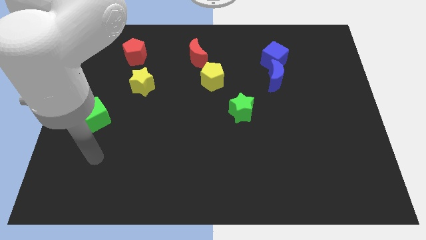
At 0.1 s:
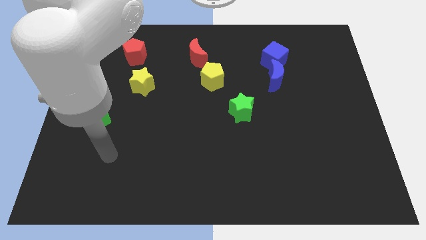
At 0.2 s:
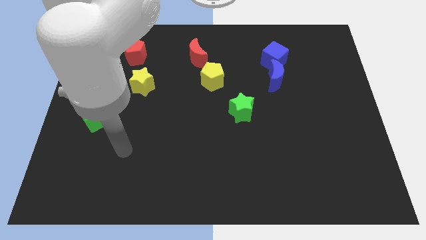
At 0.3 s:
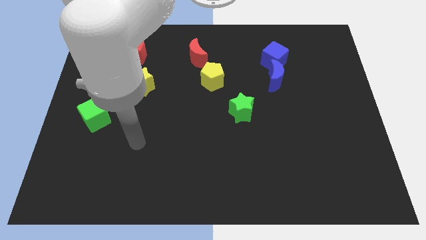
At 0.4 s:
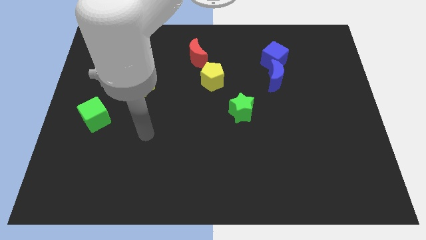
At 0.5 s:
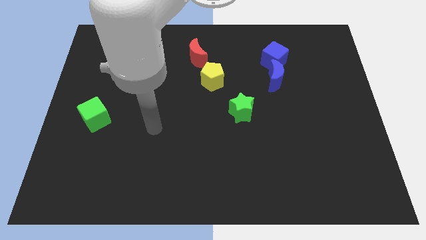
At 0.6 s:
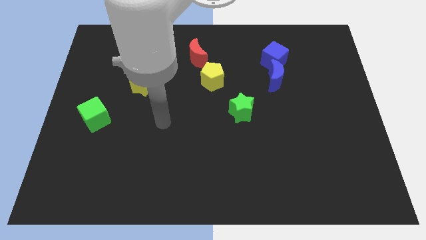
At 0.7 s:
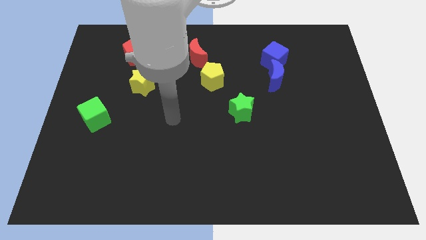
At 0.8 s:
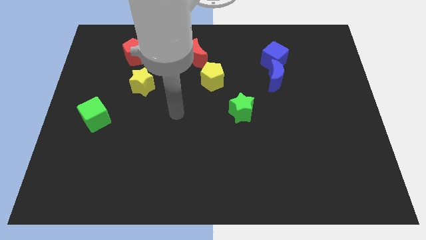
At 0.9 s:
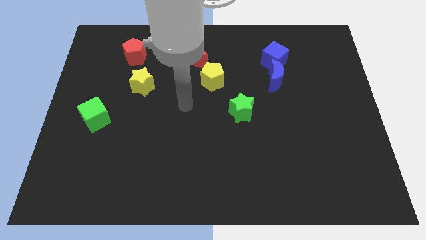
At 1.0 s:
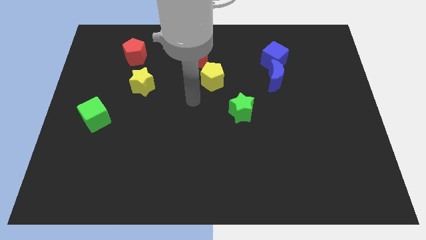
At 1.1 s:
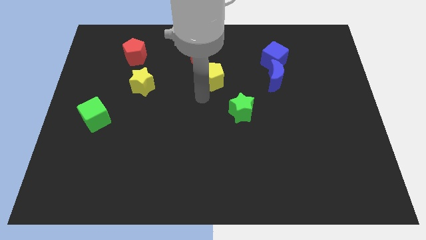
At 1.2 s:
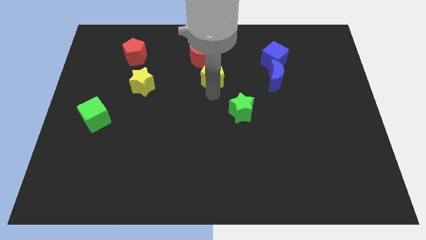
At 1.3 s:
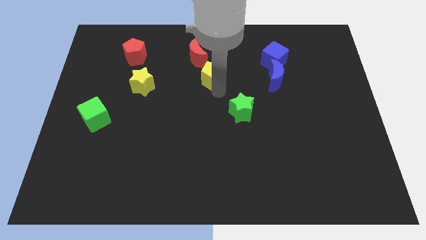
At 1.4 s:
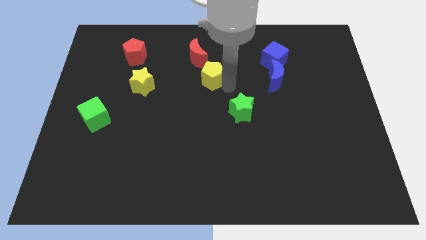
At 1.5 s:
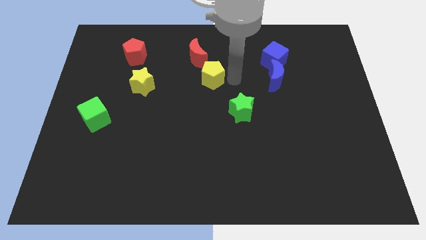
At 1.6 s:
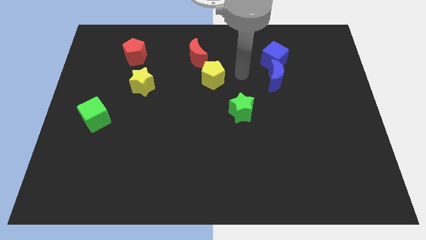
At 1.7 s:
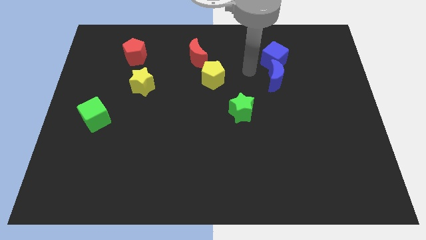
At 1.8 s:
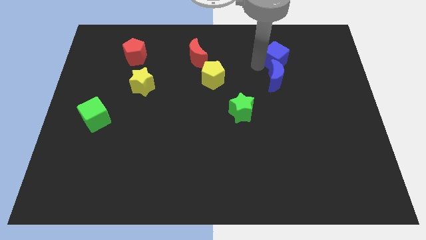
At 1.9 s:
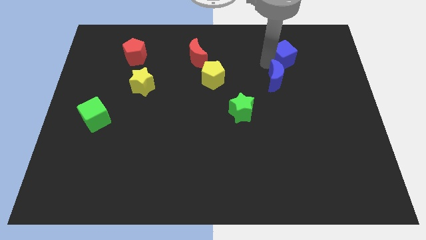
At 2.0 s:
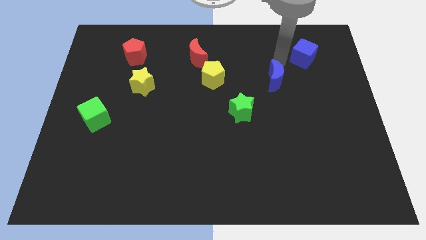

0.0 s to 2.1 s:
move the blue moon away from the blue cube

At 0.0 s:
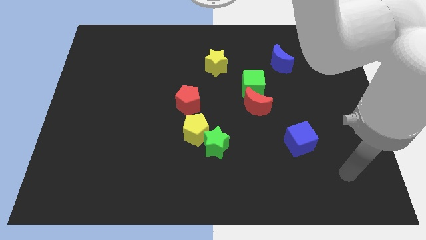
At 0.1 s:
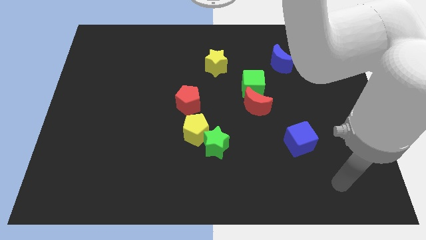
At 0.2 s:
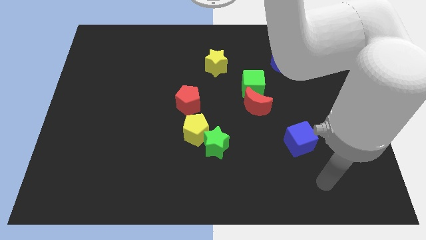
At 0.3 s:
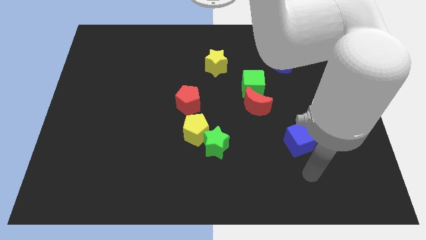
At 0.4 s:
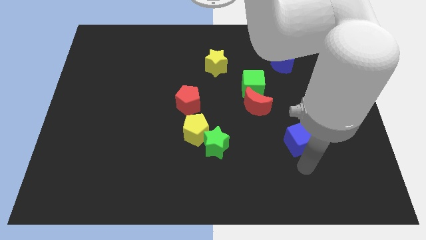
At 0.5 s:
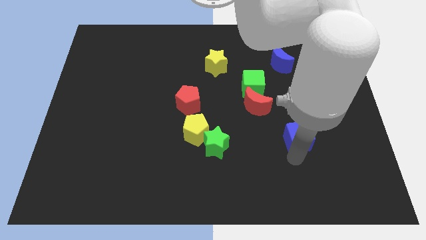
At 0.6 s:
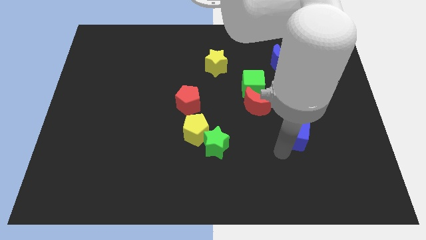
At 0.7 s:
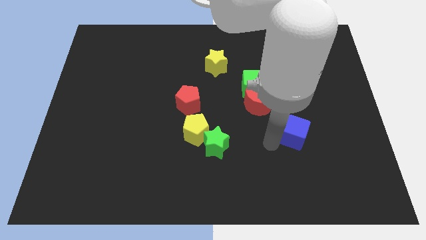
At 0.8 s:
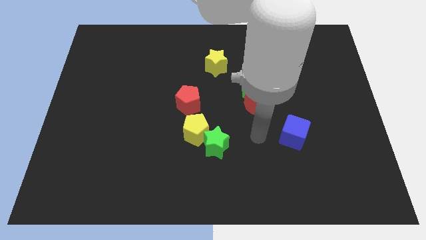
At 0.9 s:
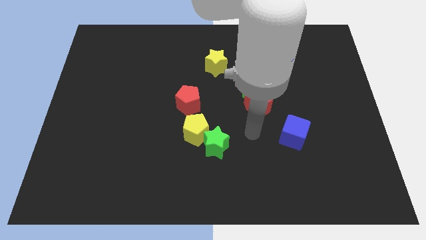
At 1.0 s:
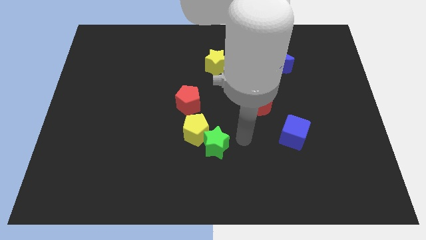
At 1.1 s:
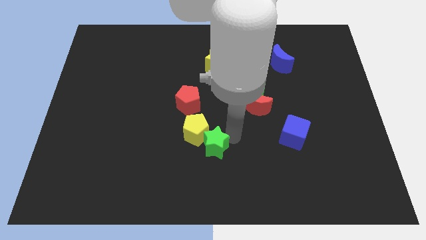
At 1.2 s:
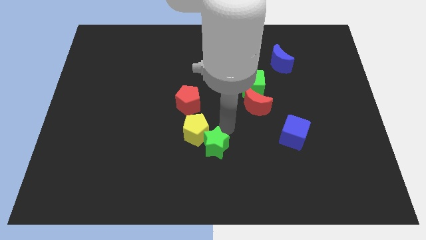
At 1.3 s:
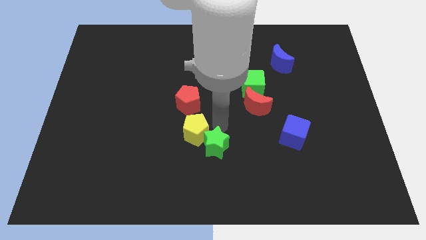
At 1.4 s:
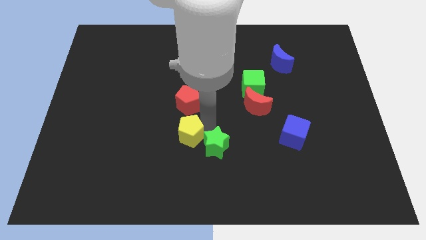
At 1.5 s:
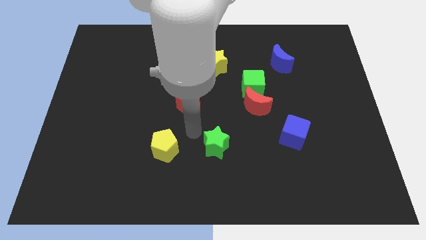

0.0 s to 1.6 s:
pull the green star apart from the yellow pentagon

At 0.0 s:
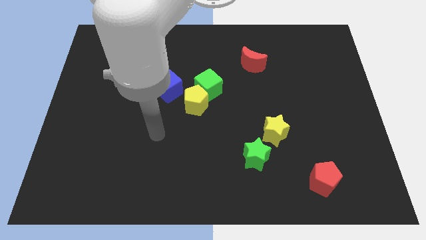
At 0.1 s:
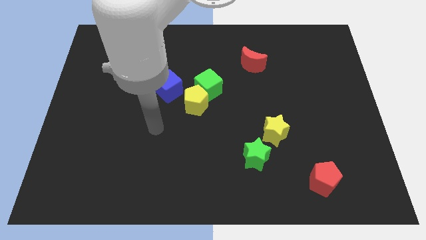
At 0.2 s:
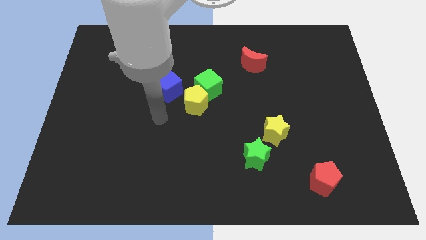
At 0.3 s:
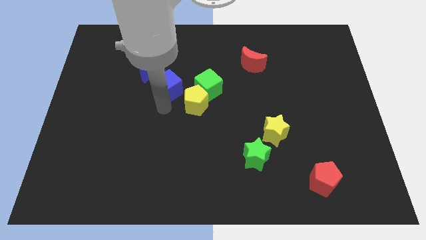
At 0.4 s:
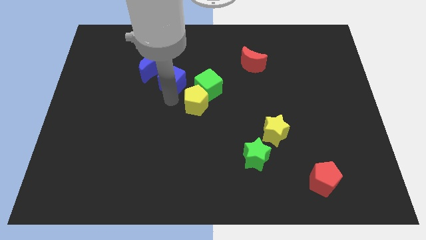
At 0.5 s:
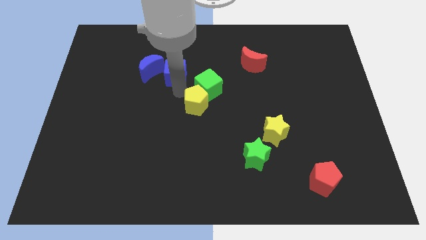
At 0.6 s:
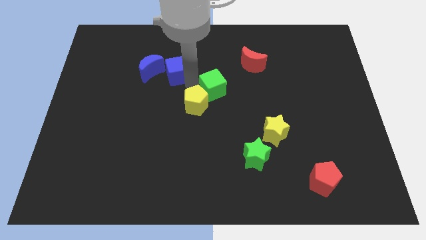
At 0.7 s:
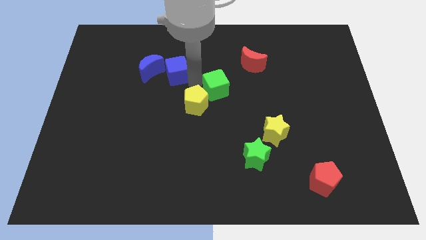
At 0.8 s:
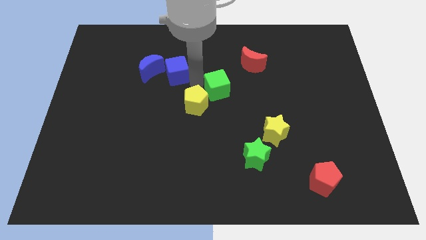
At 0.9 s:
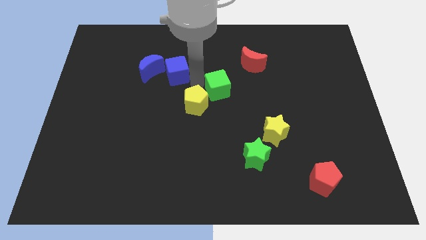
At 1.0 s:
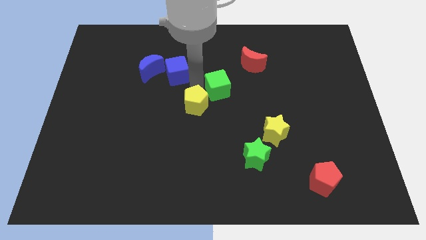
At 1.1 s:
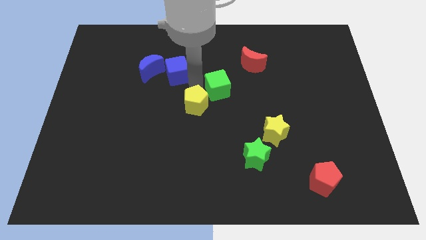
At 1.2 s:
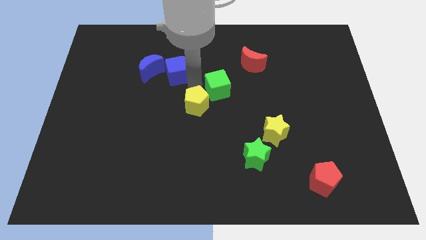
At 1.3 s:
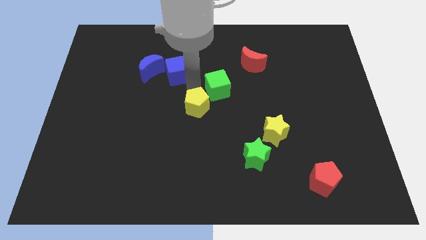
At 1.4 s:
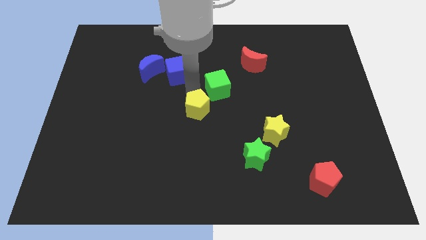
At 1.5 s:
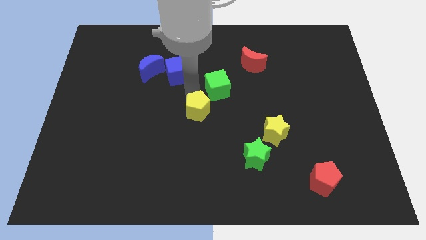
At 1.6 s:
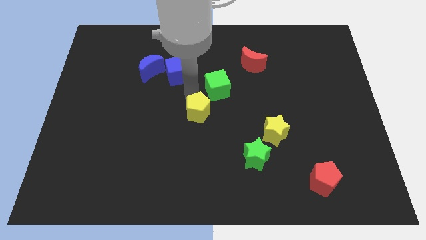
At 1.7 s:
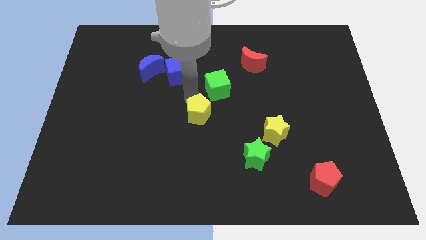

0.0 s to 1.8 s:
move the yellow pentagon away from the green cube and blue cube

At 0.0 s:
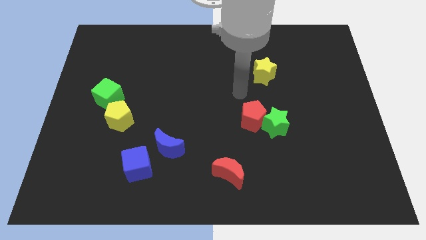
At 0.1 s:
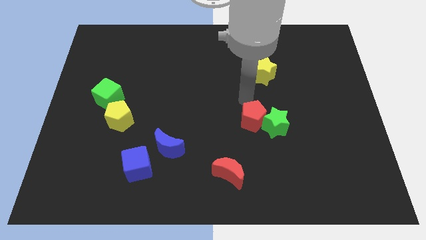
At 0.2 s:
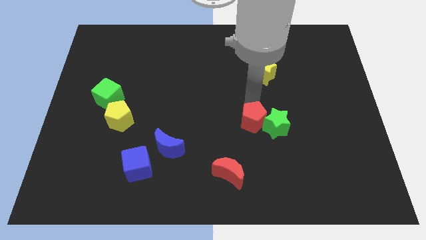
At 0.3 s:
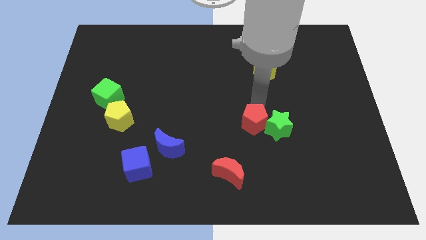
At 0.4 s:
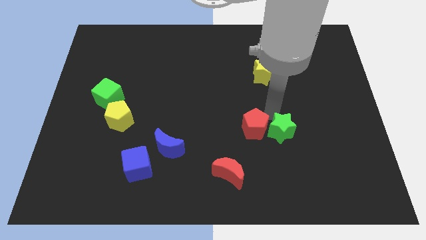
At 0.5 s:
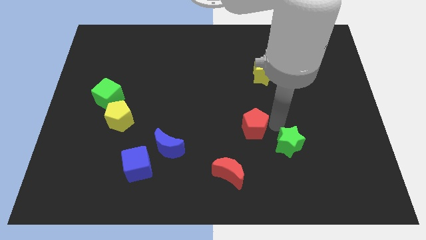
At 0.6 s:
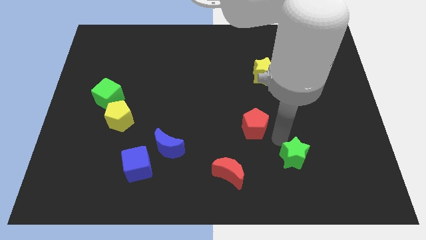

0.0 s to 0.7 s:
pull the red pentagon apart from the green star

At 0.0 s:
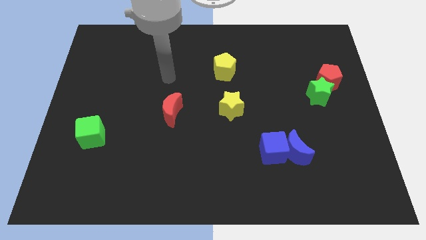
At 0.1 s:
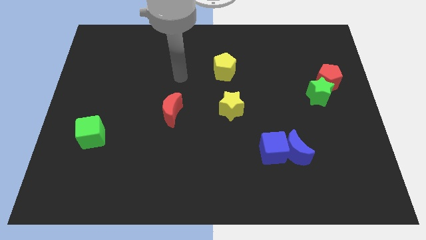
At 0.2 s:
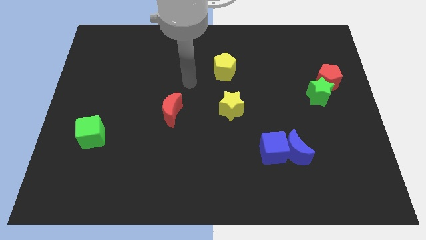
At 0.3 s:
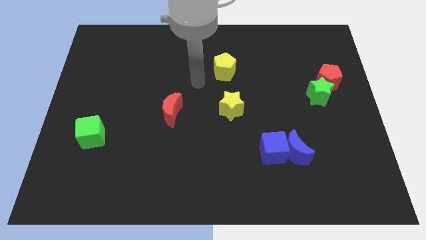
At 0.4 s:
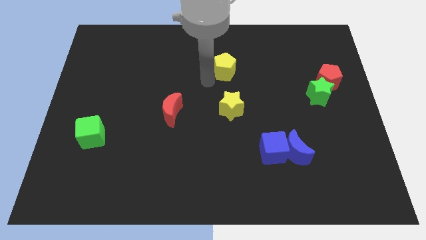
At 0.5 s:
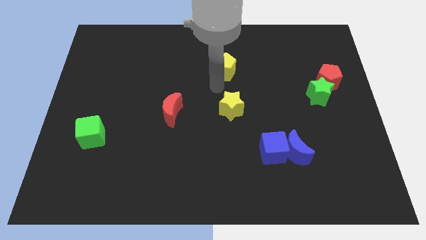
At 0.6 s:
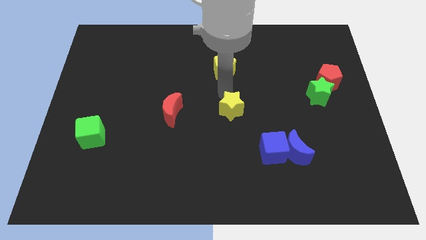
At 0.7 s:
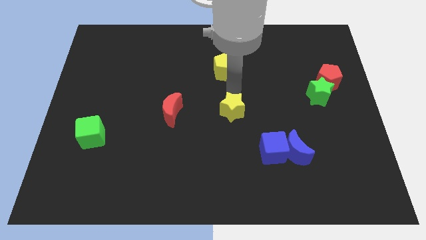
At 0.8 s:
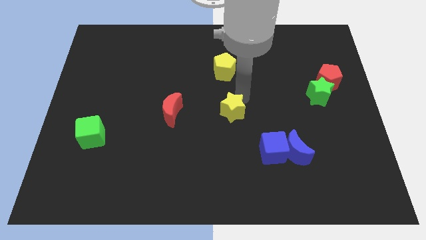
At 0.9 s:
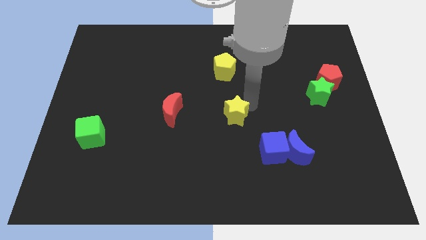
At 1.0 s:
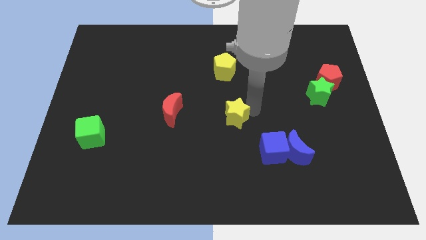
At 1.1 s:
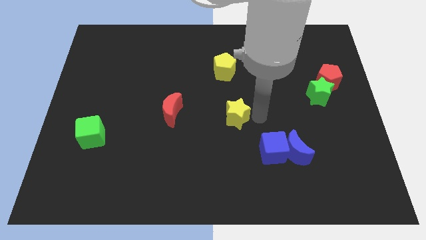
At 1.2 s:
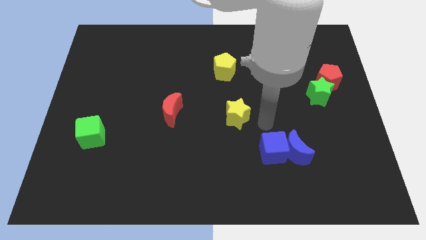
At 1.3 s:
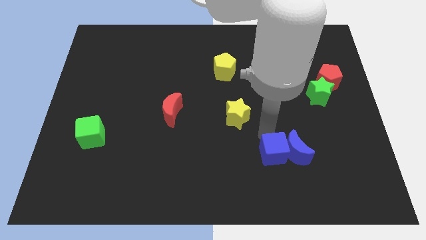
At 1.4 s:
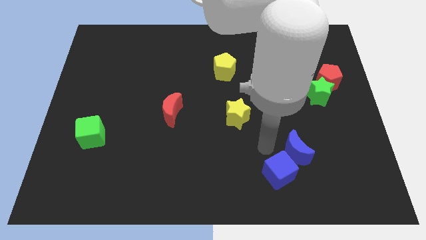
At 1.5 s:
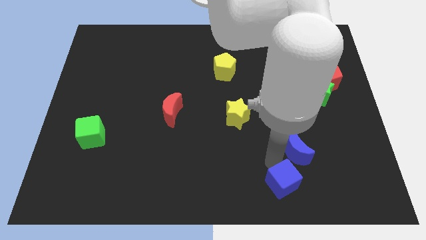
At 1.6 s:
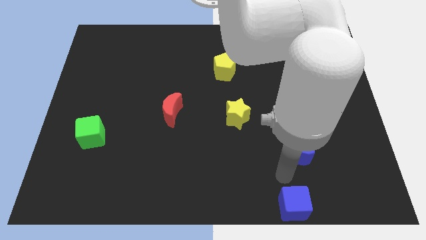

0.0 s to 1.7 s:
separate the blue moon from the blue cube

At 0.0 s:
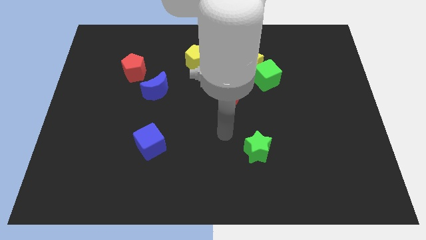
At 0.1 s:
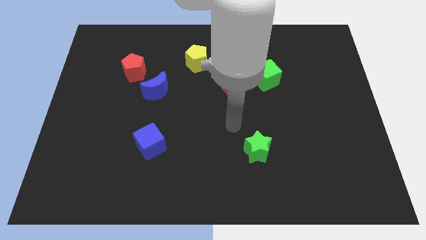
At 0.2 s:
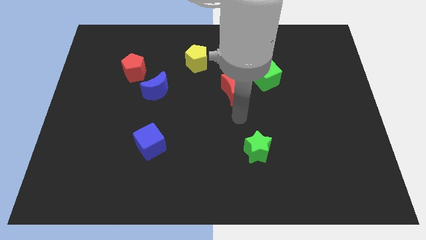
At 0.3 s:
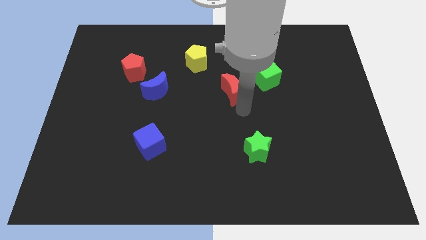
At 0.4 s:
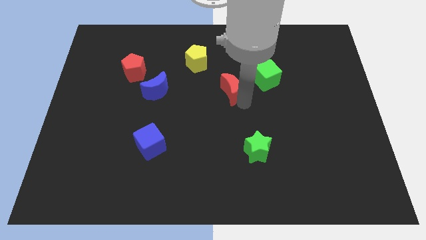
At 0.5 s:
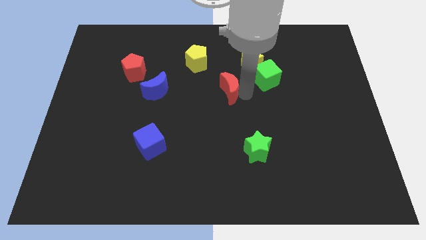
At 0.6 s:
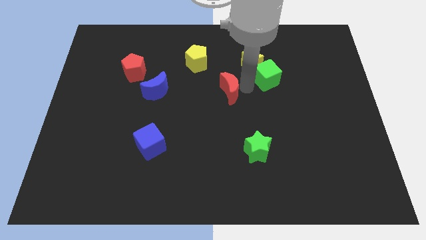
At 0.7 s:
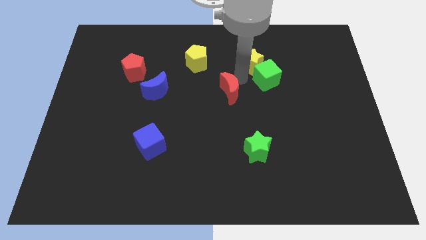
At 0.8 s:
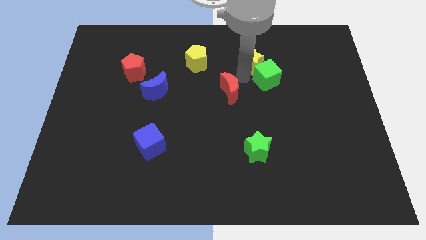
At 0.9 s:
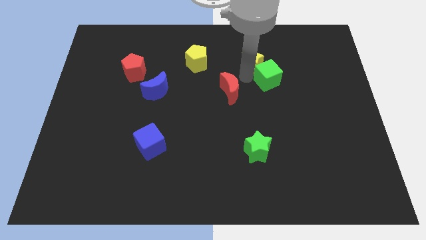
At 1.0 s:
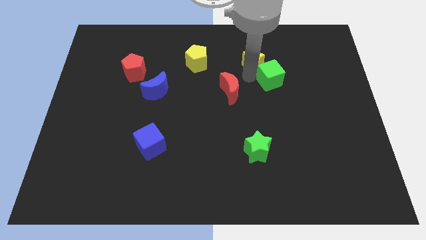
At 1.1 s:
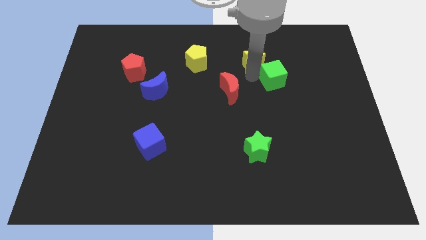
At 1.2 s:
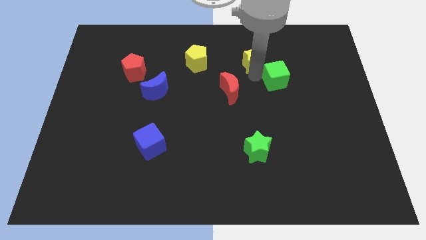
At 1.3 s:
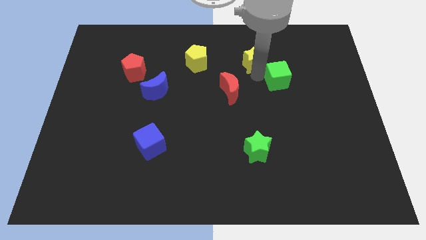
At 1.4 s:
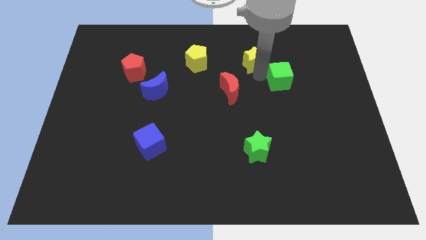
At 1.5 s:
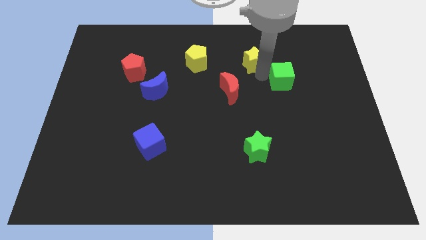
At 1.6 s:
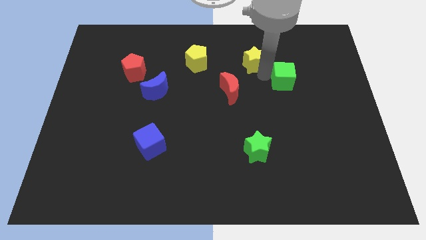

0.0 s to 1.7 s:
separate the green cube from the yellow star and red moon
